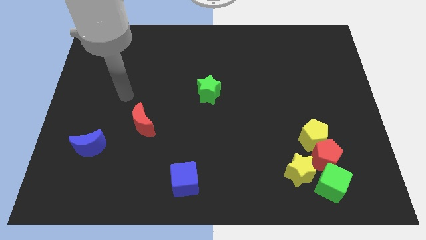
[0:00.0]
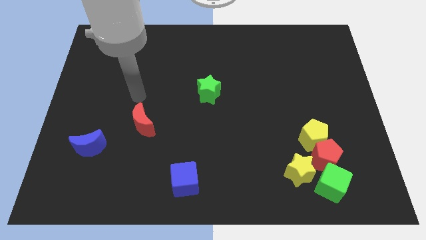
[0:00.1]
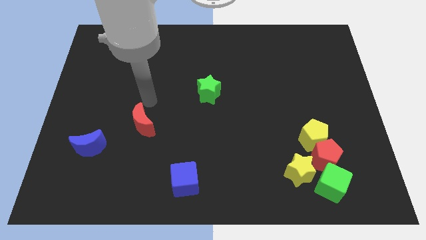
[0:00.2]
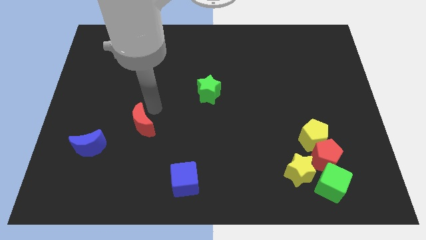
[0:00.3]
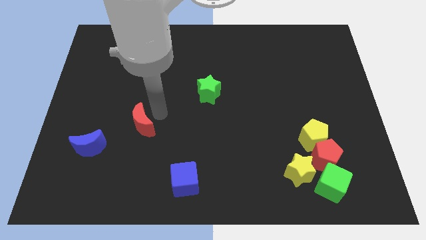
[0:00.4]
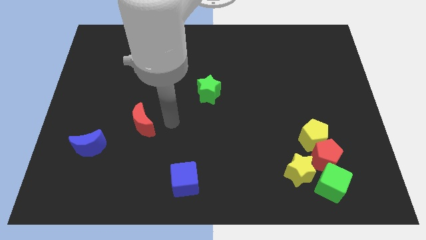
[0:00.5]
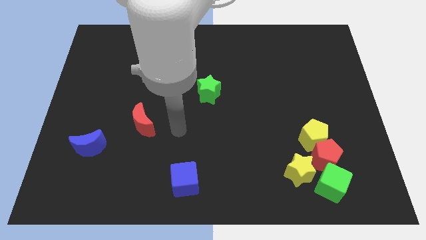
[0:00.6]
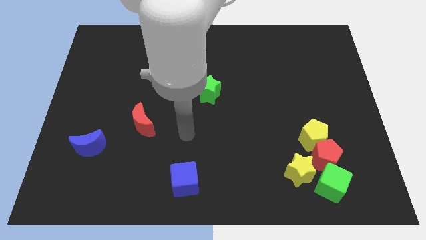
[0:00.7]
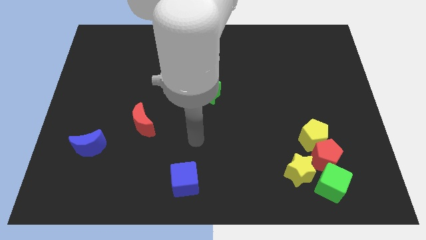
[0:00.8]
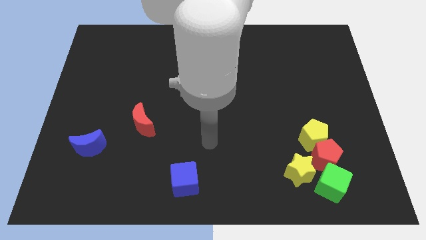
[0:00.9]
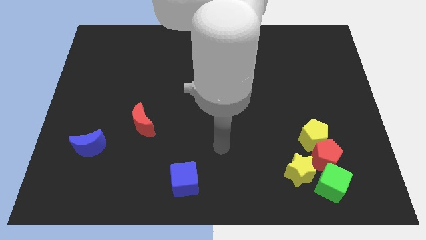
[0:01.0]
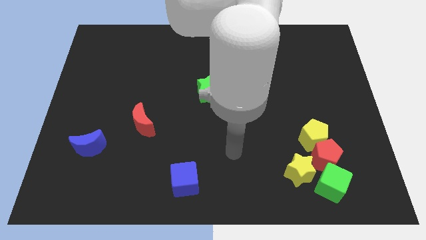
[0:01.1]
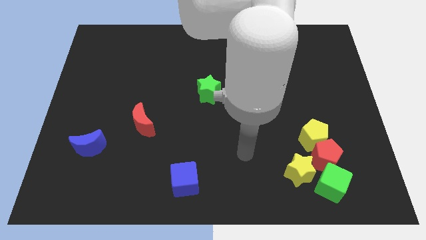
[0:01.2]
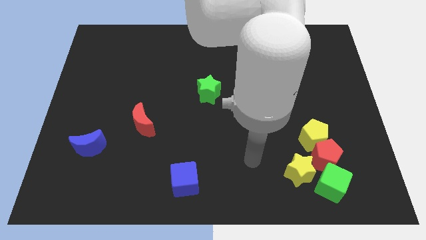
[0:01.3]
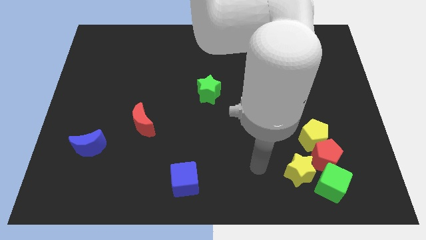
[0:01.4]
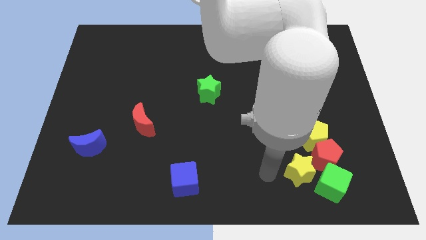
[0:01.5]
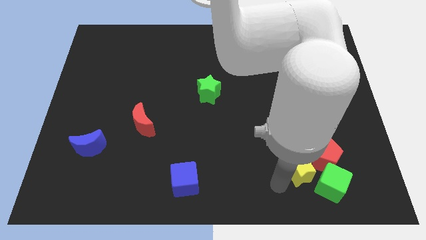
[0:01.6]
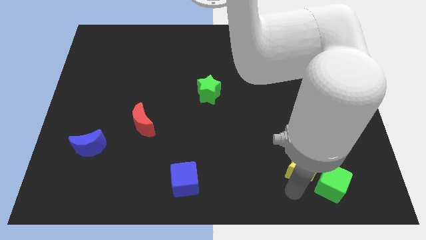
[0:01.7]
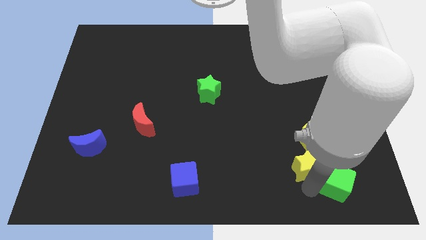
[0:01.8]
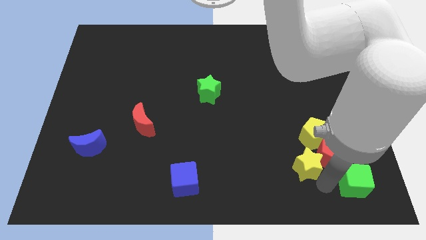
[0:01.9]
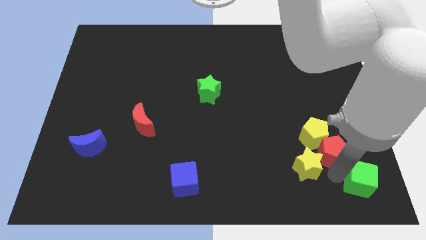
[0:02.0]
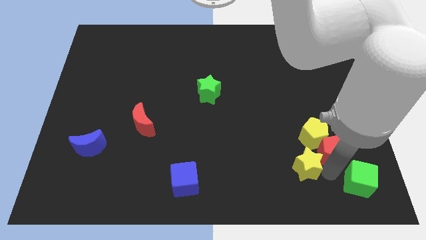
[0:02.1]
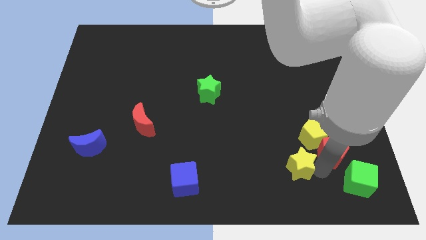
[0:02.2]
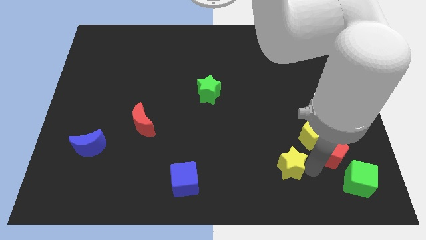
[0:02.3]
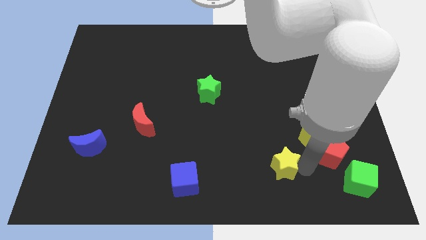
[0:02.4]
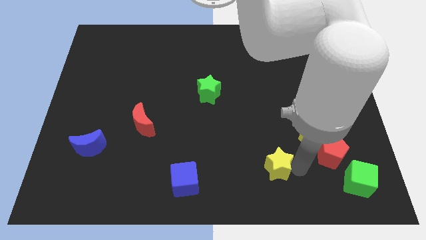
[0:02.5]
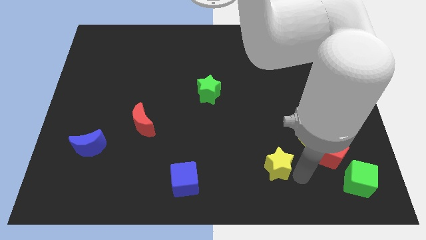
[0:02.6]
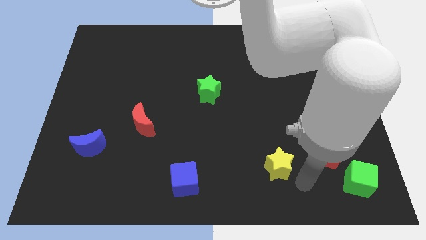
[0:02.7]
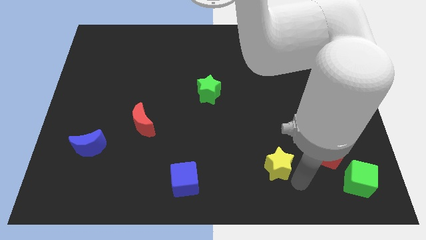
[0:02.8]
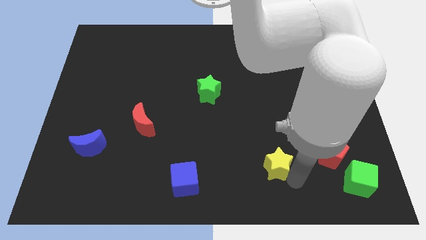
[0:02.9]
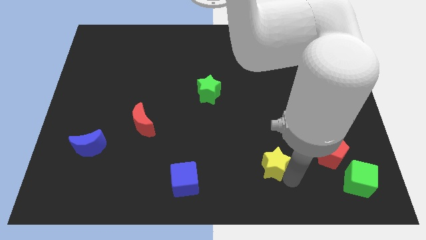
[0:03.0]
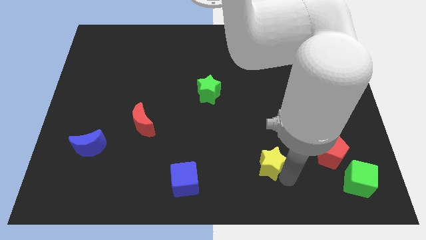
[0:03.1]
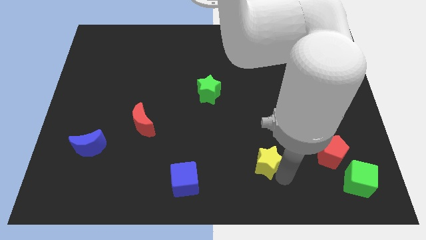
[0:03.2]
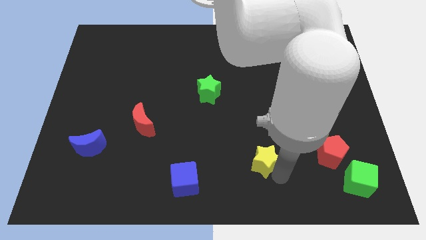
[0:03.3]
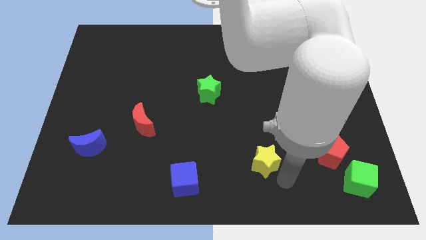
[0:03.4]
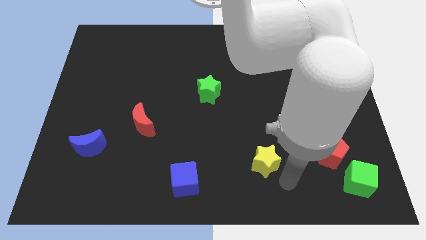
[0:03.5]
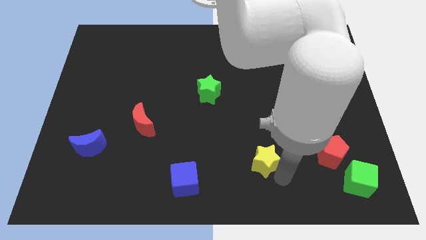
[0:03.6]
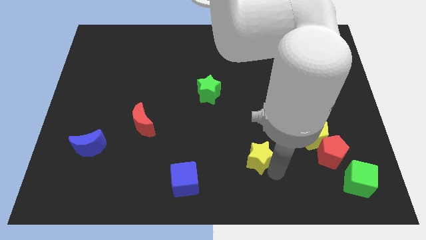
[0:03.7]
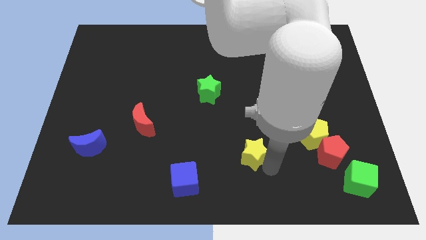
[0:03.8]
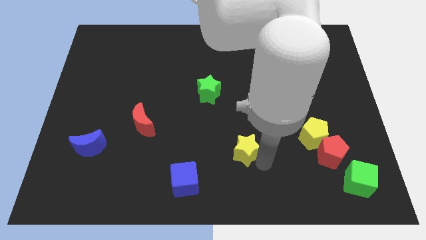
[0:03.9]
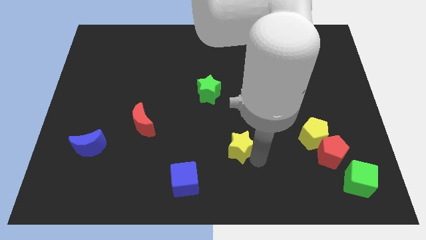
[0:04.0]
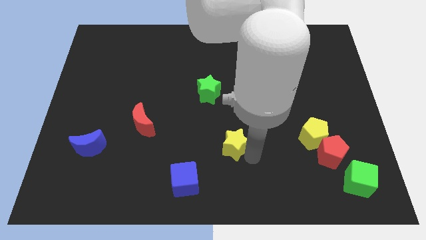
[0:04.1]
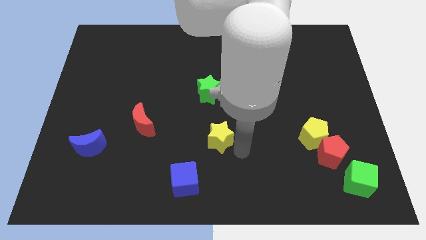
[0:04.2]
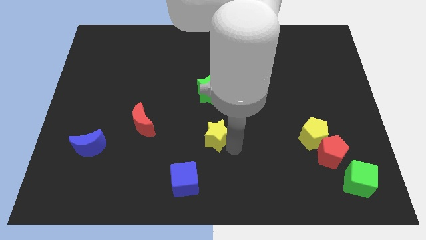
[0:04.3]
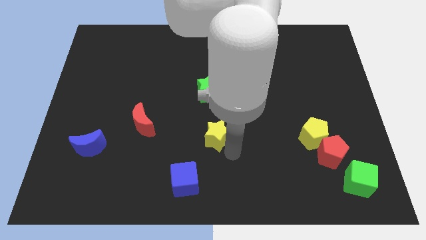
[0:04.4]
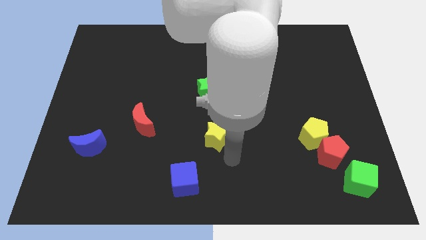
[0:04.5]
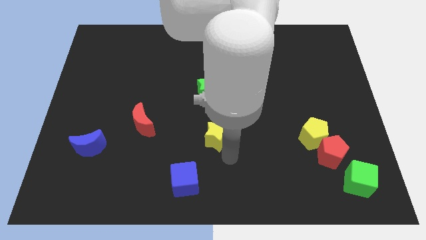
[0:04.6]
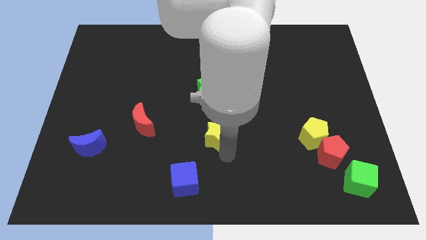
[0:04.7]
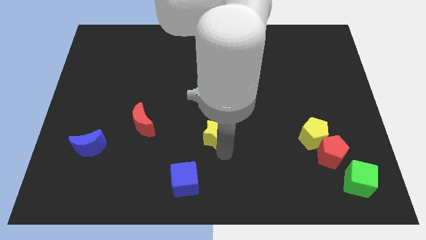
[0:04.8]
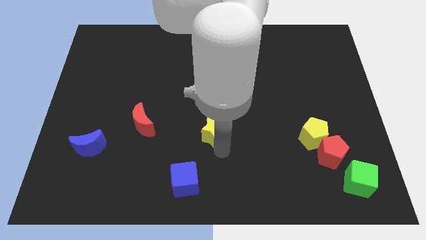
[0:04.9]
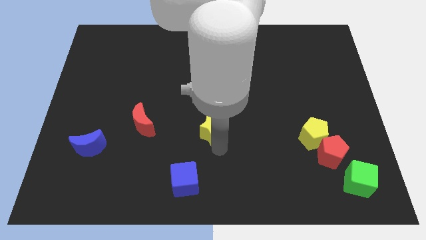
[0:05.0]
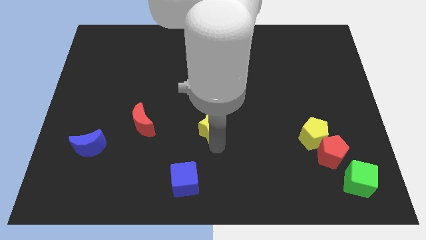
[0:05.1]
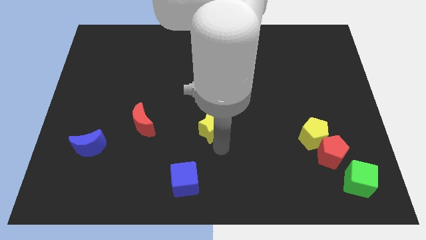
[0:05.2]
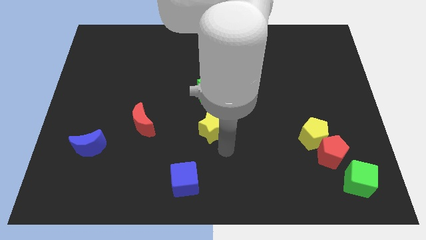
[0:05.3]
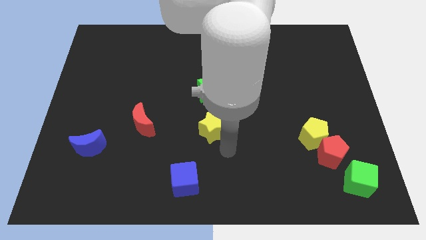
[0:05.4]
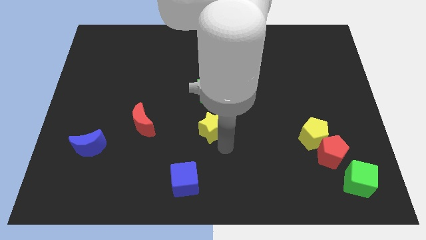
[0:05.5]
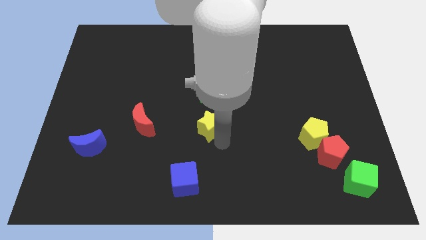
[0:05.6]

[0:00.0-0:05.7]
push the yellow star diagonally up and to the left

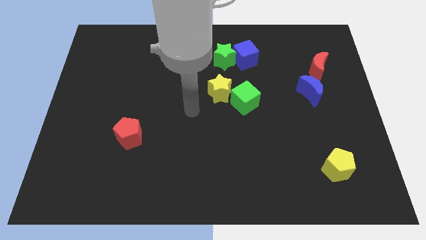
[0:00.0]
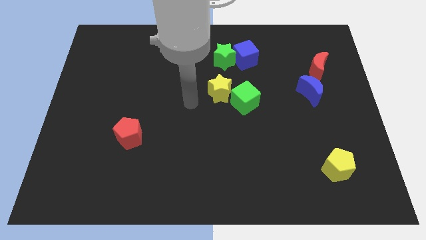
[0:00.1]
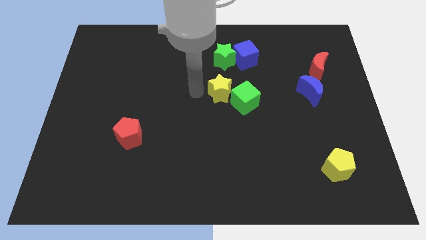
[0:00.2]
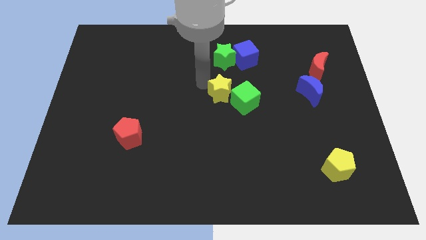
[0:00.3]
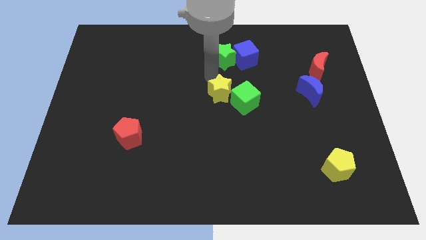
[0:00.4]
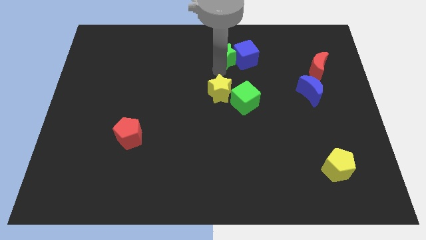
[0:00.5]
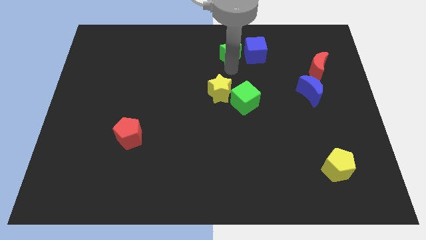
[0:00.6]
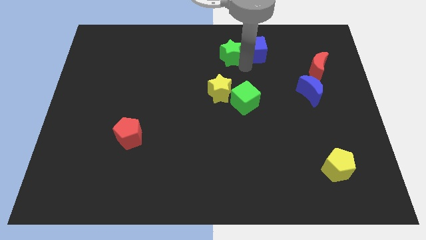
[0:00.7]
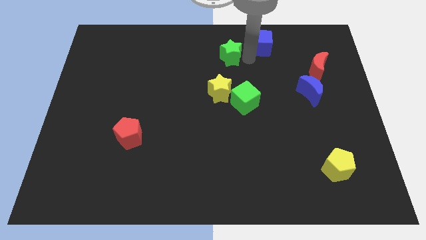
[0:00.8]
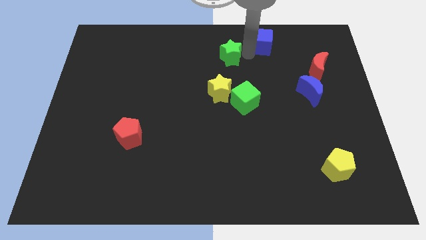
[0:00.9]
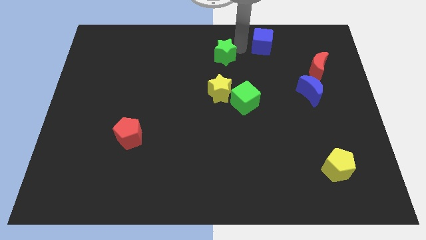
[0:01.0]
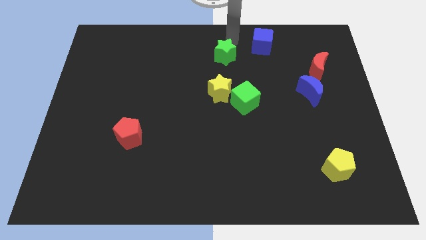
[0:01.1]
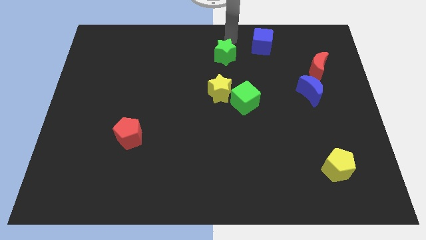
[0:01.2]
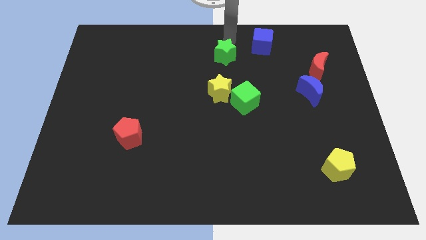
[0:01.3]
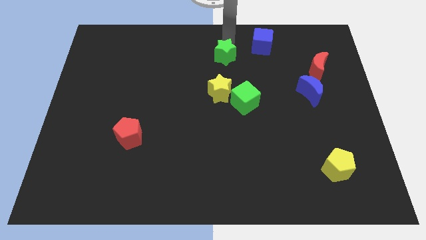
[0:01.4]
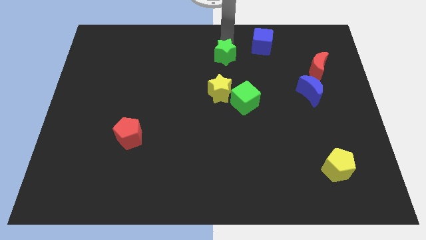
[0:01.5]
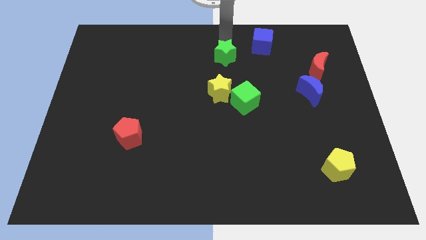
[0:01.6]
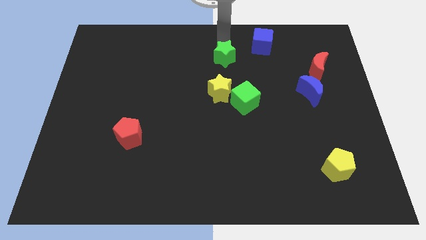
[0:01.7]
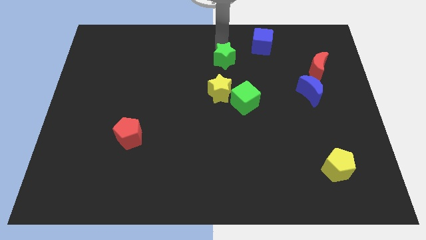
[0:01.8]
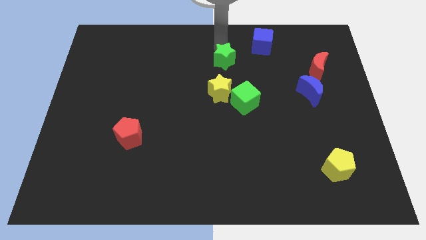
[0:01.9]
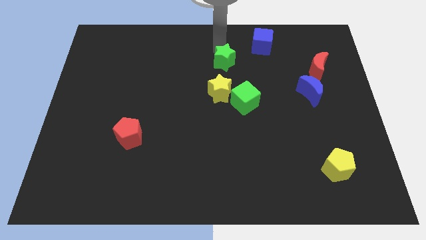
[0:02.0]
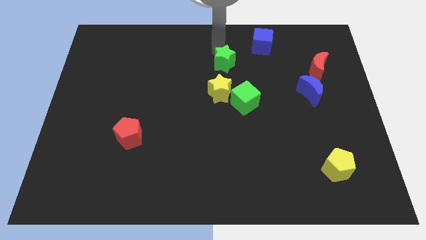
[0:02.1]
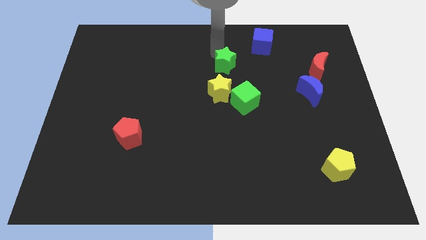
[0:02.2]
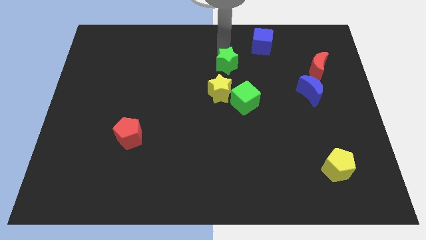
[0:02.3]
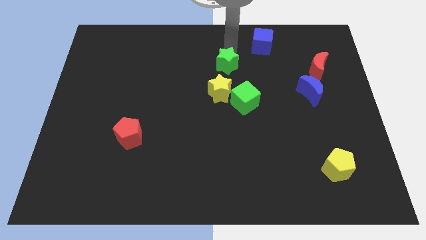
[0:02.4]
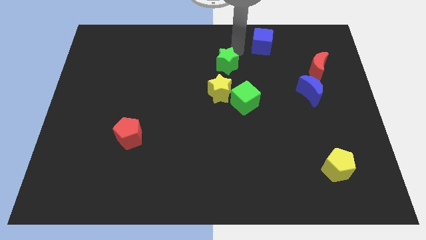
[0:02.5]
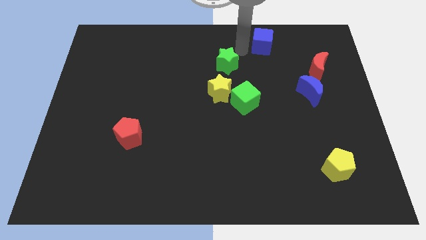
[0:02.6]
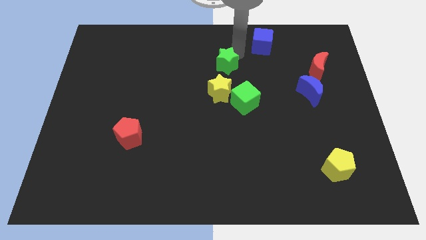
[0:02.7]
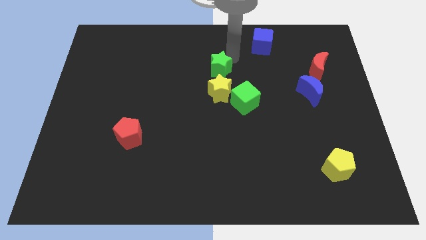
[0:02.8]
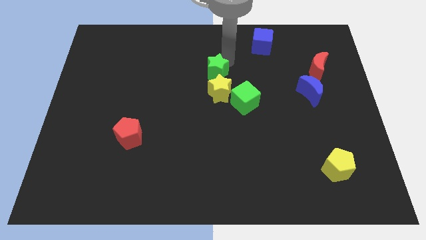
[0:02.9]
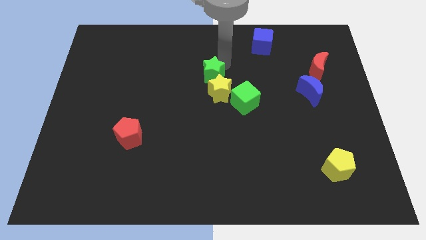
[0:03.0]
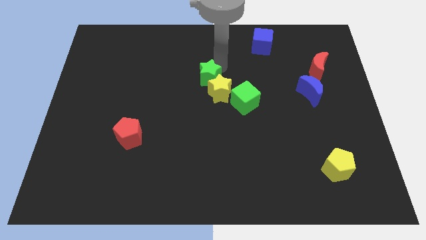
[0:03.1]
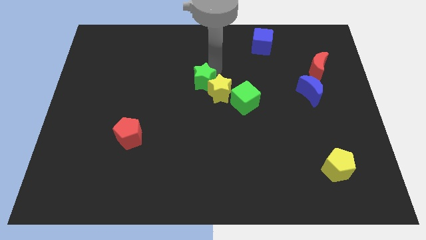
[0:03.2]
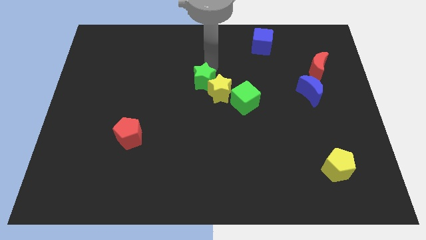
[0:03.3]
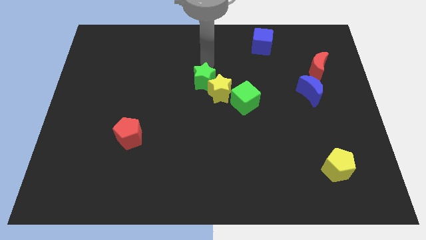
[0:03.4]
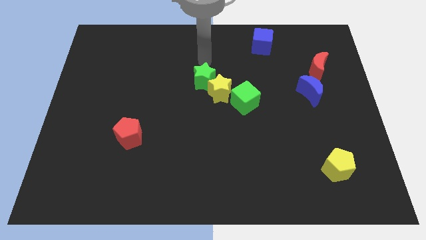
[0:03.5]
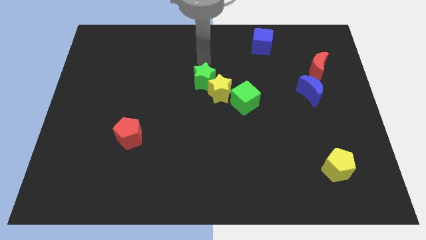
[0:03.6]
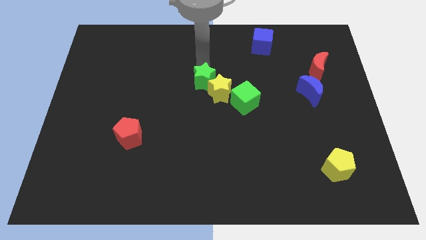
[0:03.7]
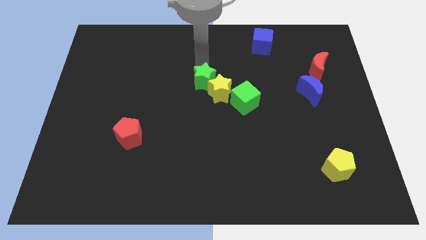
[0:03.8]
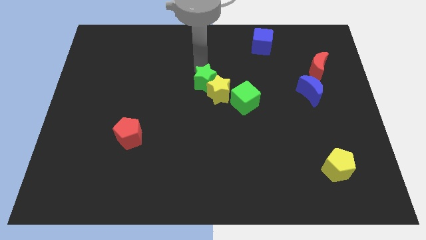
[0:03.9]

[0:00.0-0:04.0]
slightly push the green star downwards
